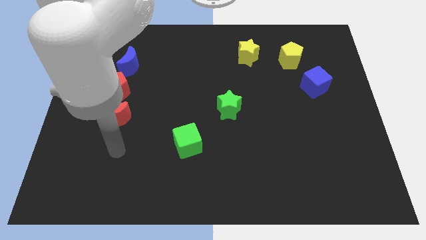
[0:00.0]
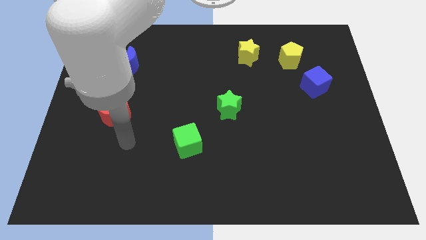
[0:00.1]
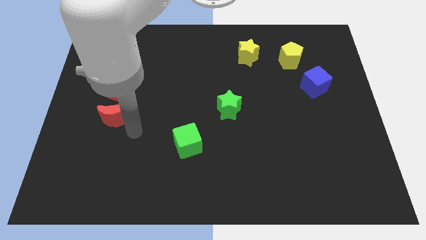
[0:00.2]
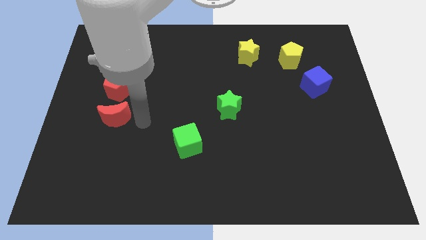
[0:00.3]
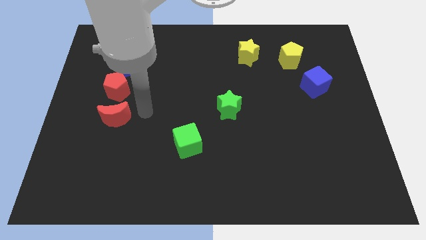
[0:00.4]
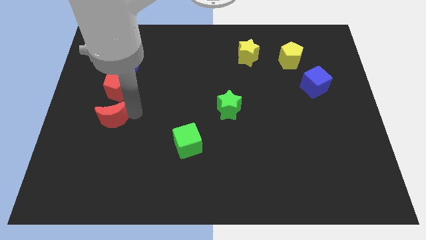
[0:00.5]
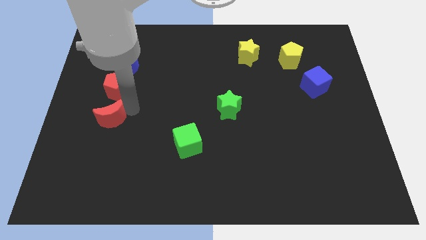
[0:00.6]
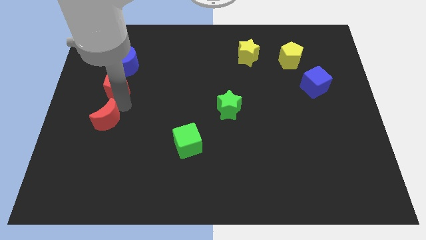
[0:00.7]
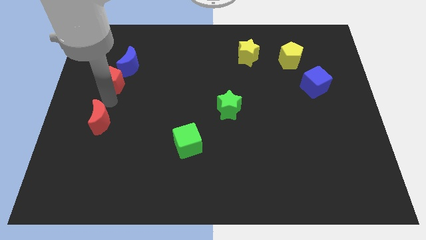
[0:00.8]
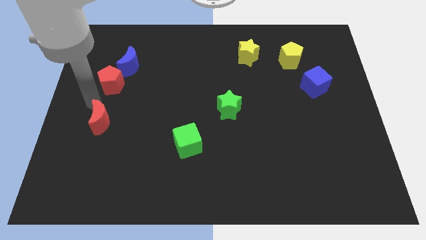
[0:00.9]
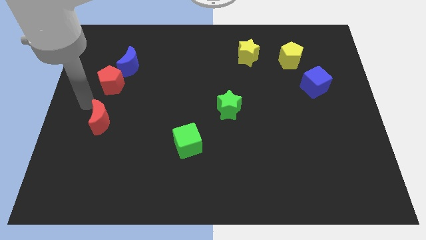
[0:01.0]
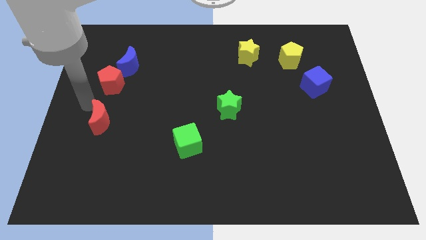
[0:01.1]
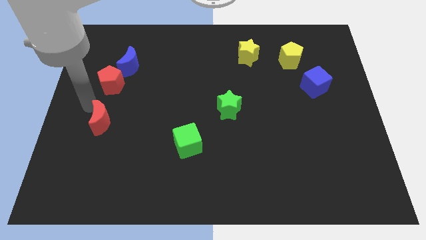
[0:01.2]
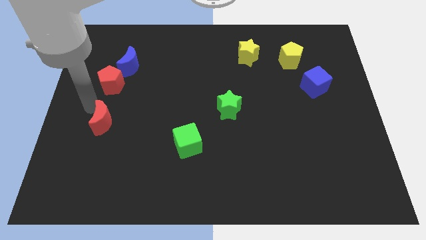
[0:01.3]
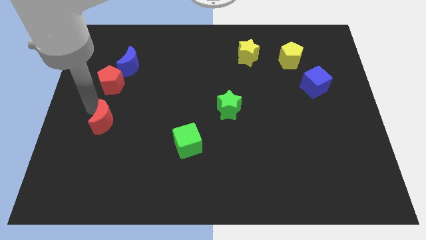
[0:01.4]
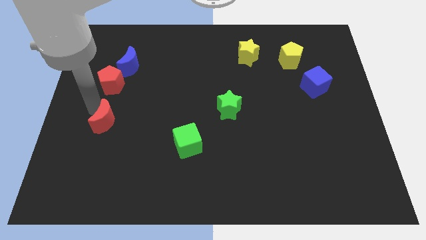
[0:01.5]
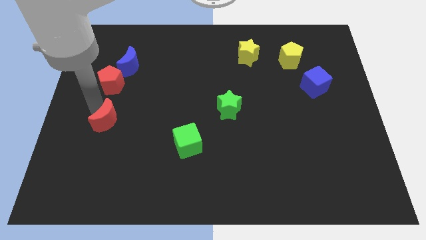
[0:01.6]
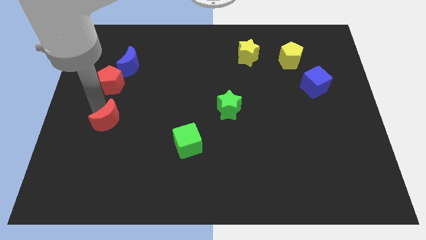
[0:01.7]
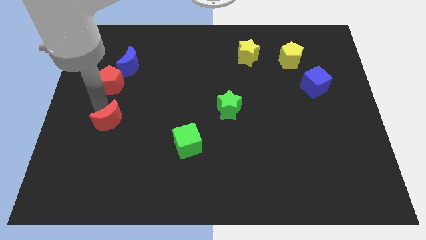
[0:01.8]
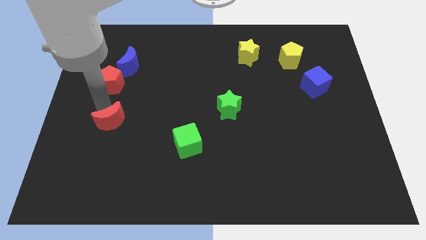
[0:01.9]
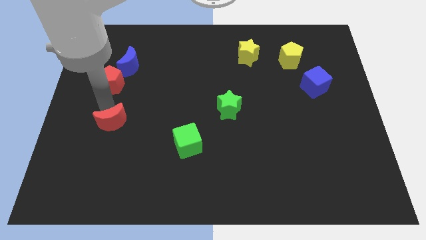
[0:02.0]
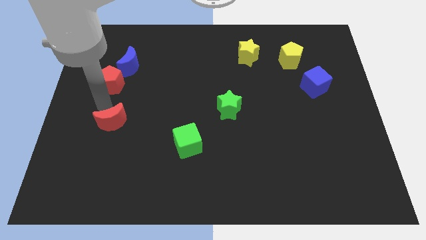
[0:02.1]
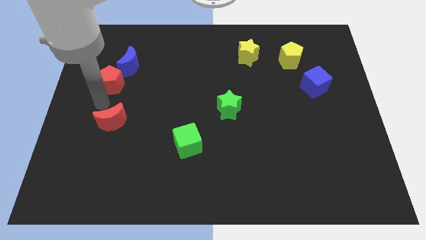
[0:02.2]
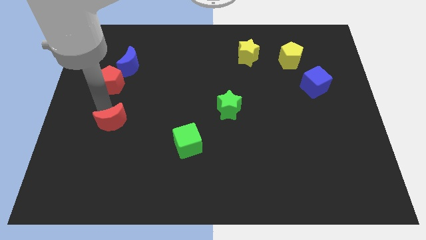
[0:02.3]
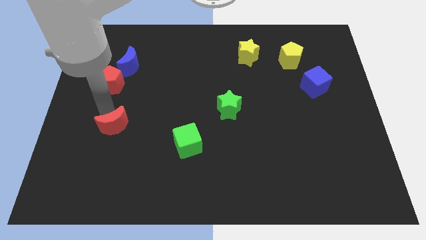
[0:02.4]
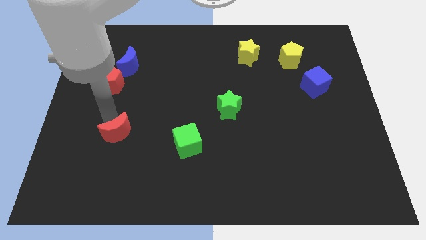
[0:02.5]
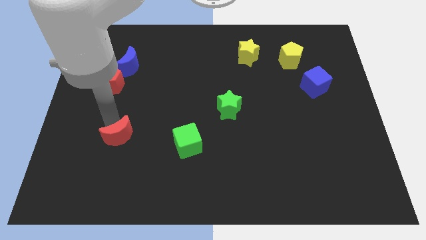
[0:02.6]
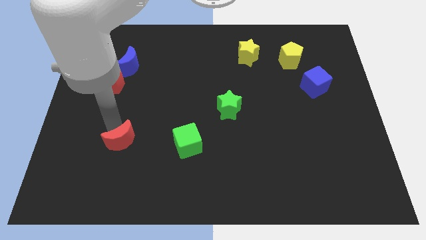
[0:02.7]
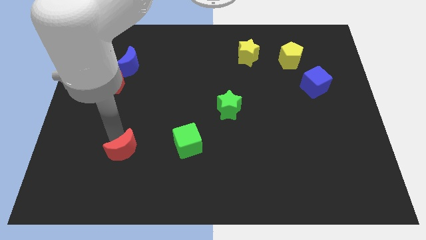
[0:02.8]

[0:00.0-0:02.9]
move the red moon diagonally downwards and right somewhat

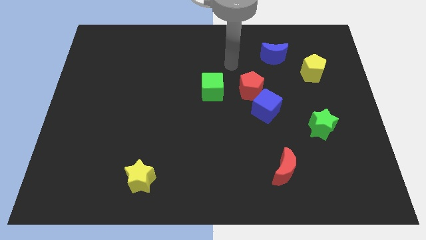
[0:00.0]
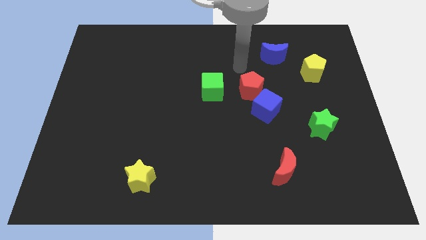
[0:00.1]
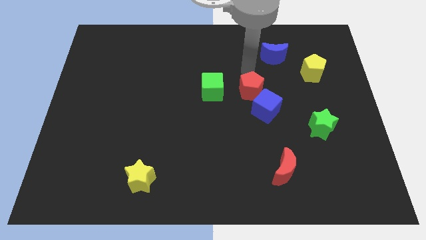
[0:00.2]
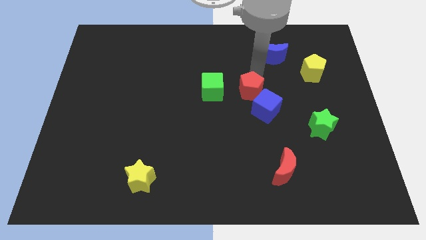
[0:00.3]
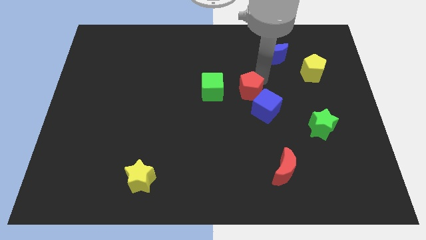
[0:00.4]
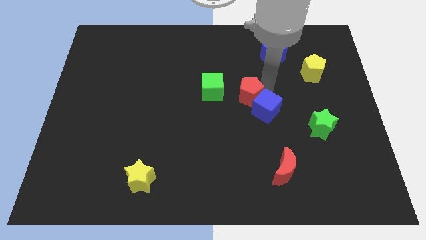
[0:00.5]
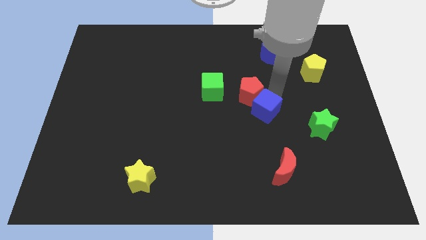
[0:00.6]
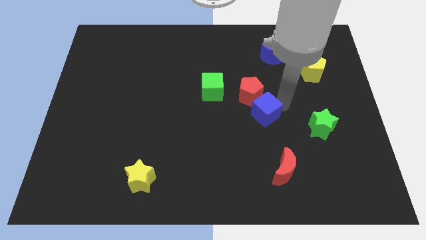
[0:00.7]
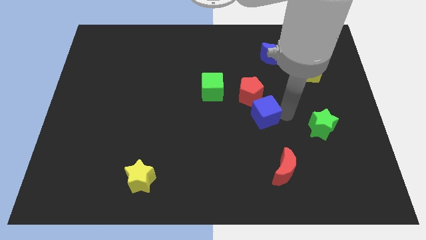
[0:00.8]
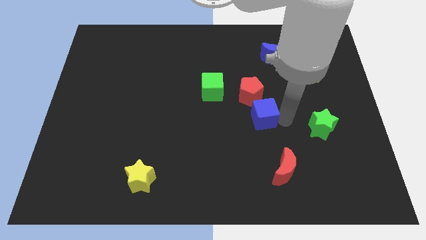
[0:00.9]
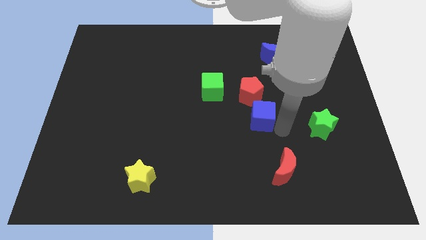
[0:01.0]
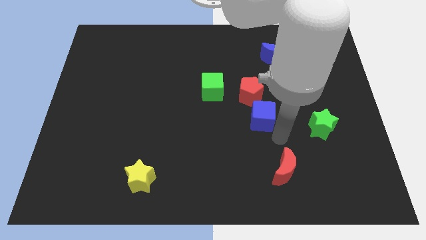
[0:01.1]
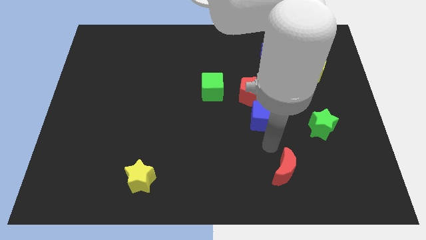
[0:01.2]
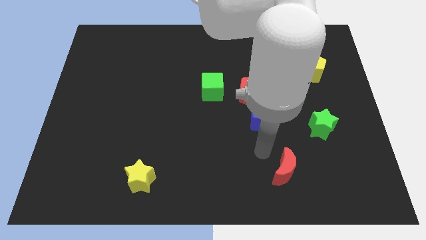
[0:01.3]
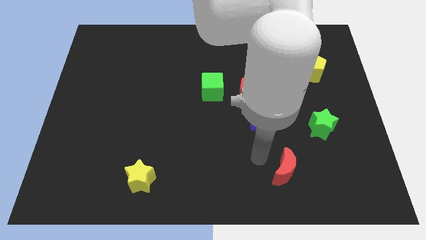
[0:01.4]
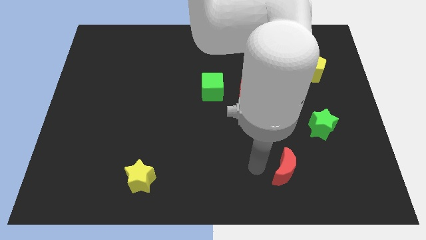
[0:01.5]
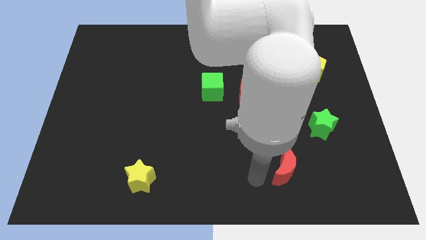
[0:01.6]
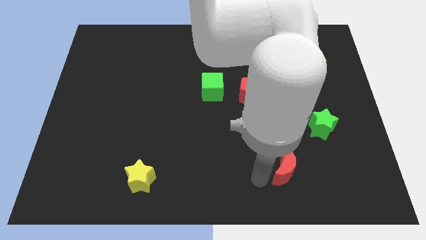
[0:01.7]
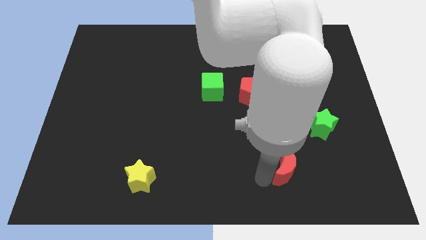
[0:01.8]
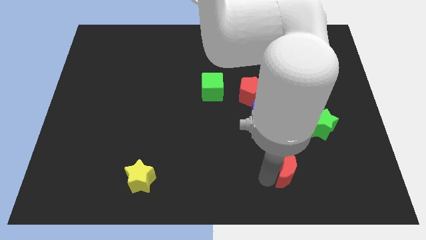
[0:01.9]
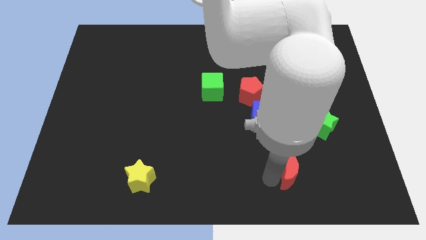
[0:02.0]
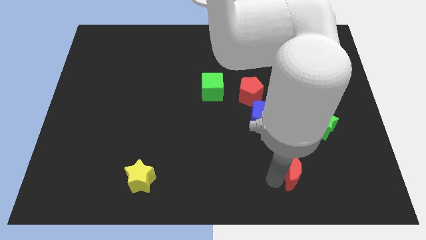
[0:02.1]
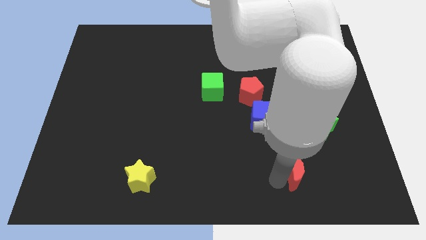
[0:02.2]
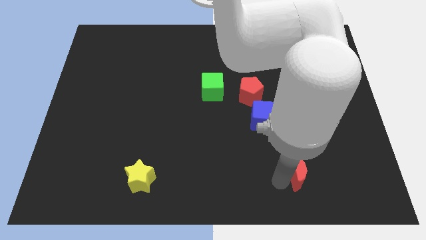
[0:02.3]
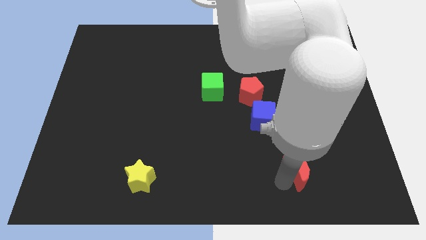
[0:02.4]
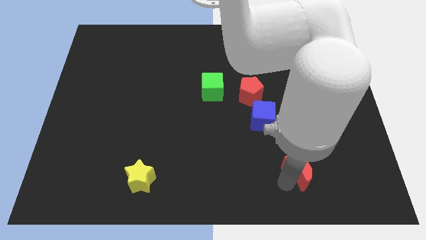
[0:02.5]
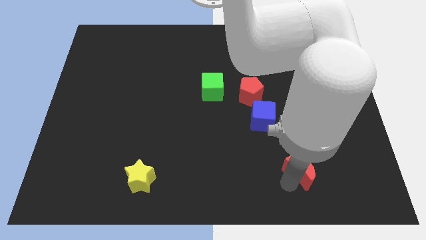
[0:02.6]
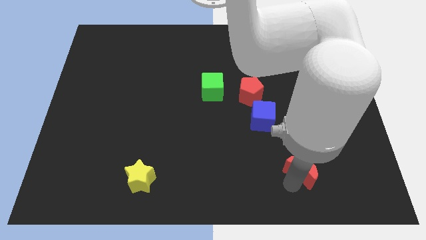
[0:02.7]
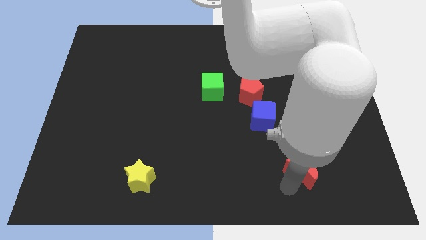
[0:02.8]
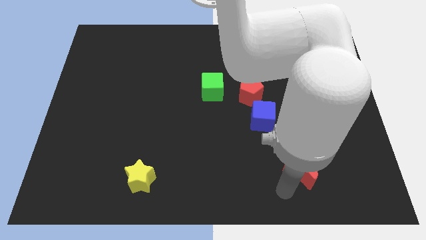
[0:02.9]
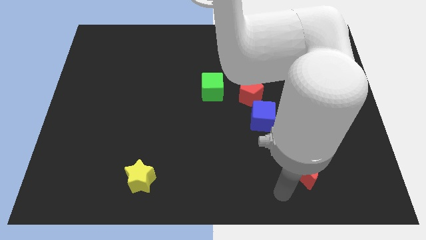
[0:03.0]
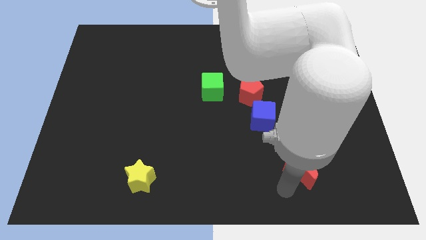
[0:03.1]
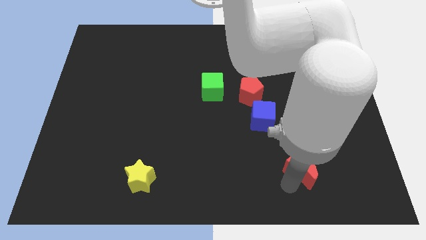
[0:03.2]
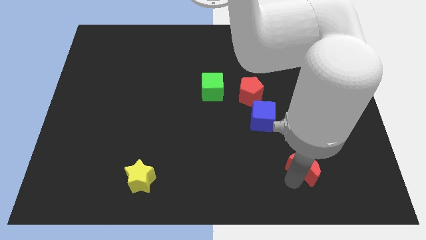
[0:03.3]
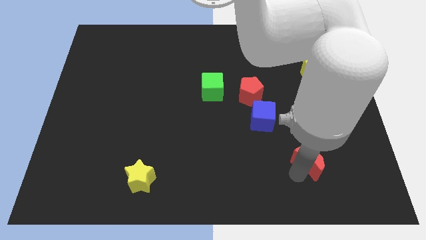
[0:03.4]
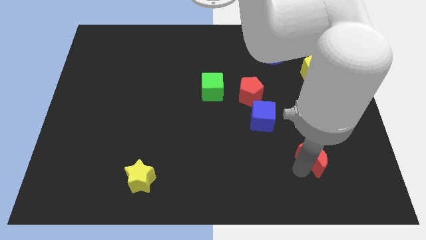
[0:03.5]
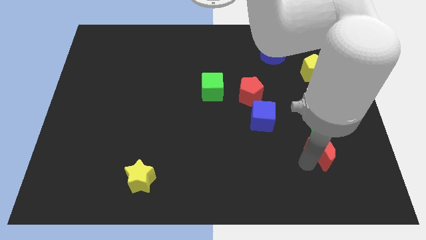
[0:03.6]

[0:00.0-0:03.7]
slide the red moon up and then to the right slightly

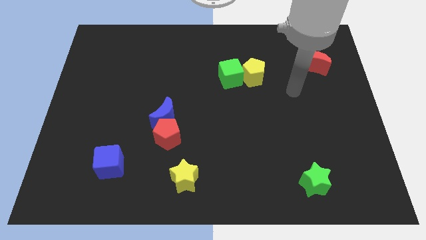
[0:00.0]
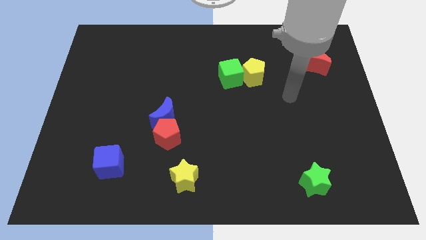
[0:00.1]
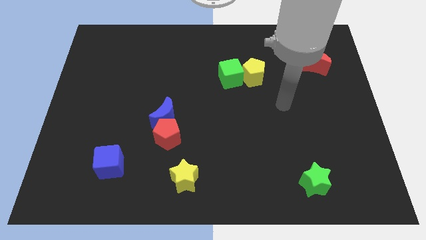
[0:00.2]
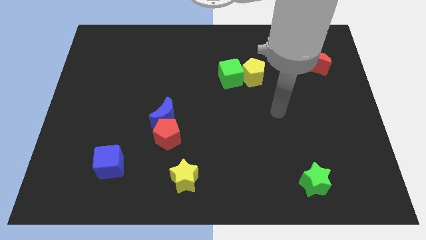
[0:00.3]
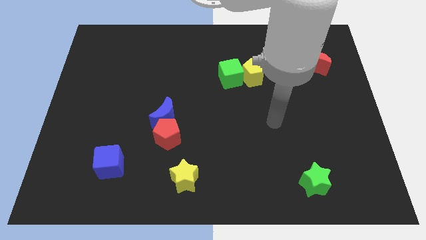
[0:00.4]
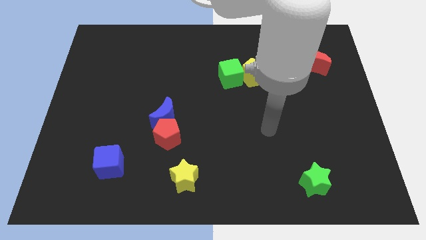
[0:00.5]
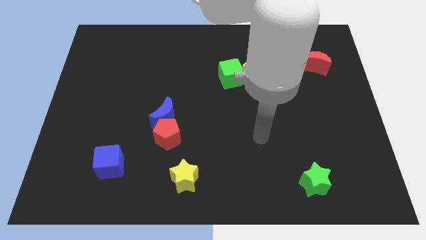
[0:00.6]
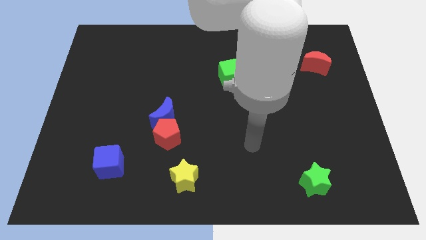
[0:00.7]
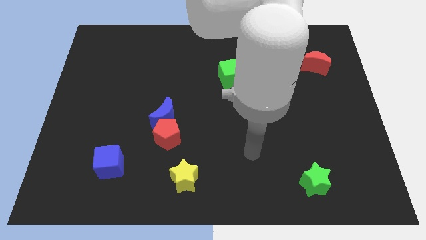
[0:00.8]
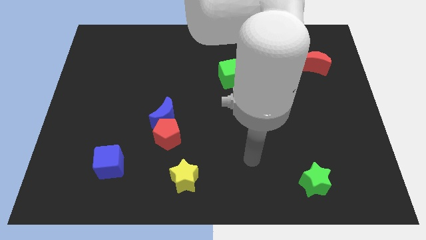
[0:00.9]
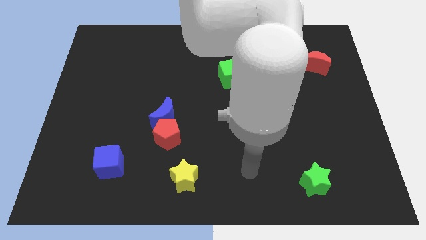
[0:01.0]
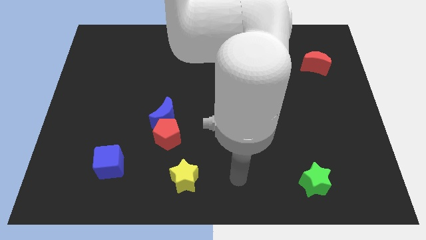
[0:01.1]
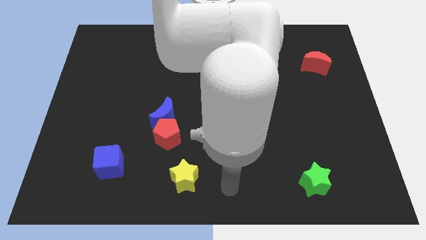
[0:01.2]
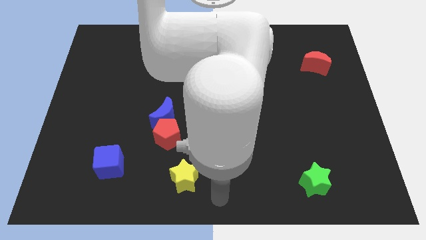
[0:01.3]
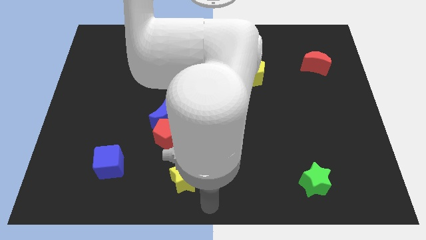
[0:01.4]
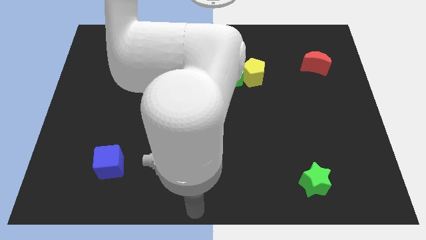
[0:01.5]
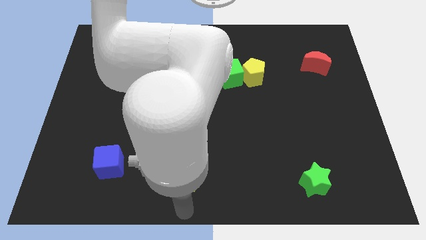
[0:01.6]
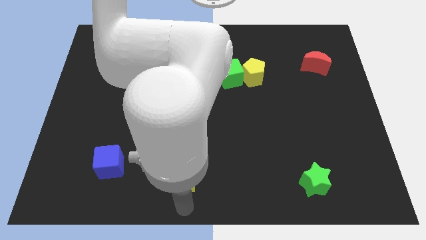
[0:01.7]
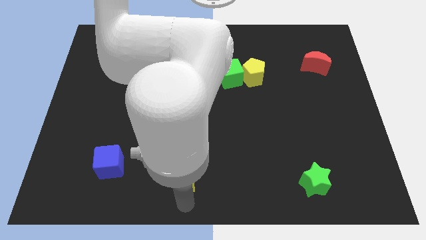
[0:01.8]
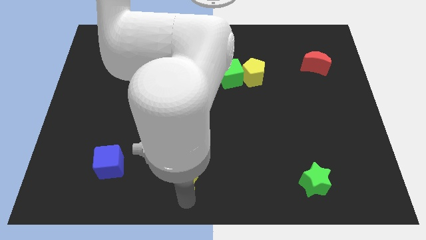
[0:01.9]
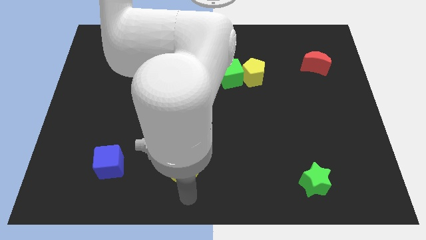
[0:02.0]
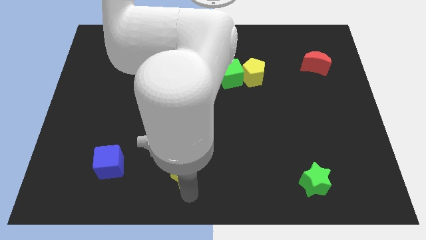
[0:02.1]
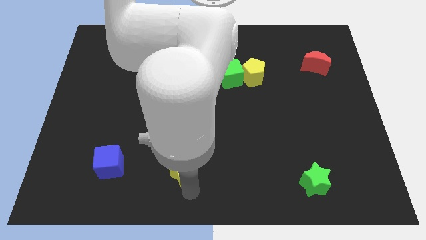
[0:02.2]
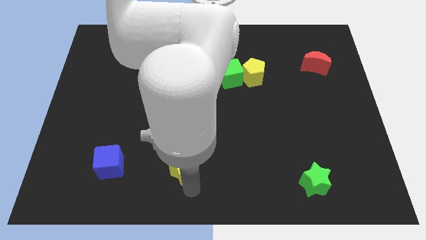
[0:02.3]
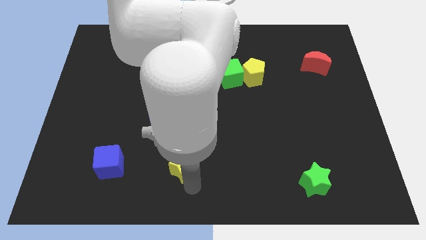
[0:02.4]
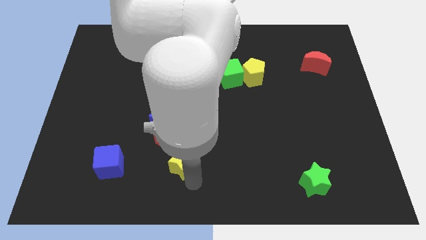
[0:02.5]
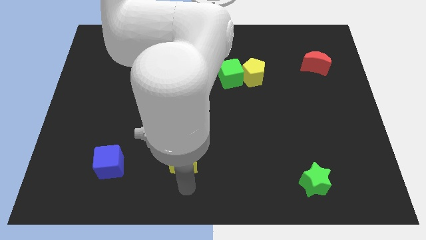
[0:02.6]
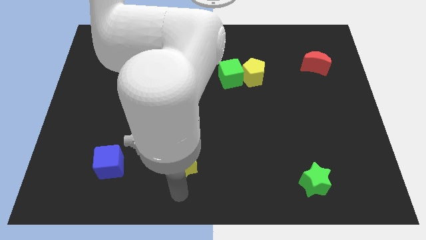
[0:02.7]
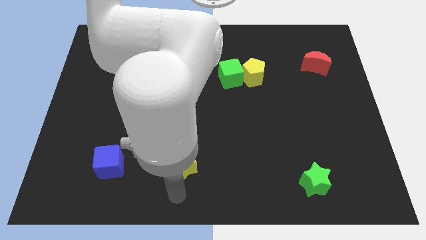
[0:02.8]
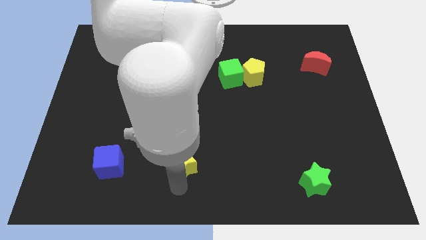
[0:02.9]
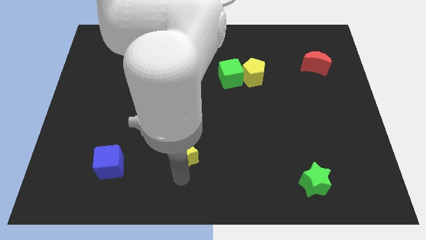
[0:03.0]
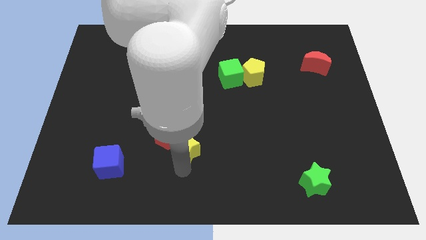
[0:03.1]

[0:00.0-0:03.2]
slide the yellow star upwards somewhat
